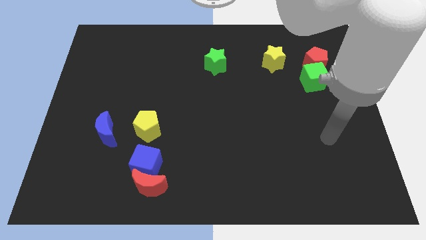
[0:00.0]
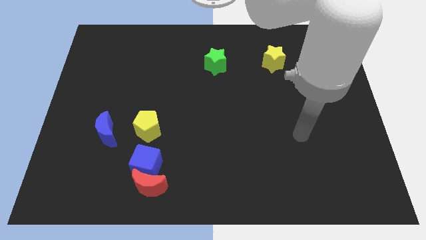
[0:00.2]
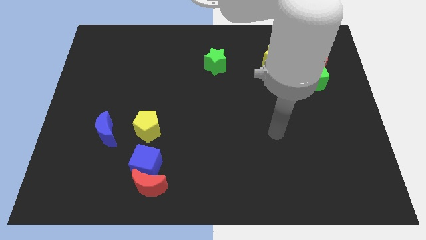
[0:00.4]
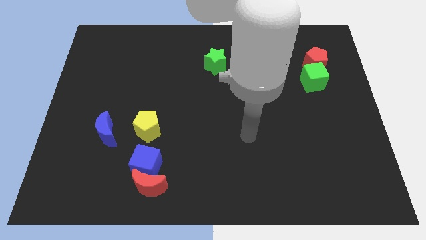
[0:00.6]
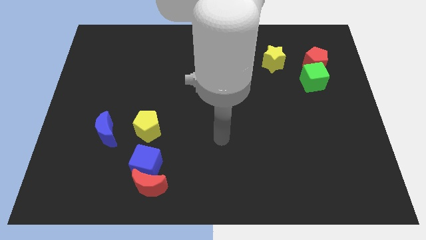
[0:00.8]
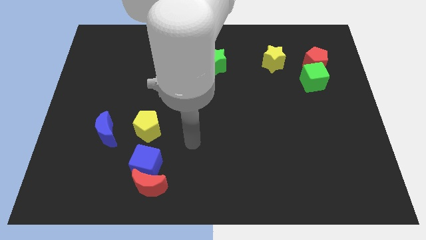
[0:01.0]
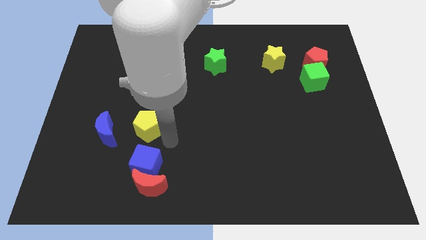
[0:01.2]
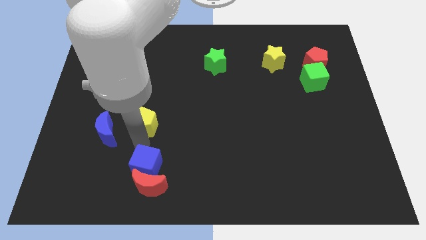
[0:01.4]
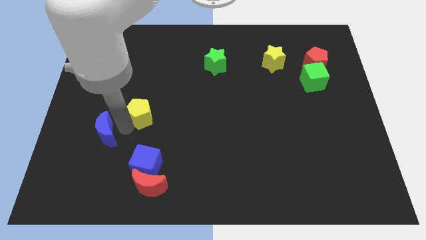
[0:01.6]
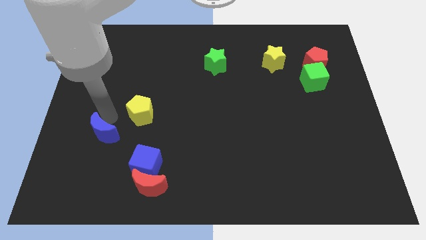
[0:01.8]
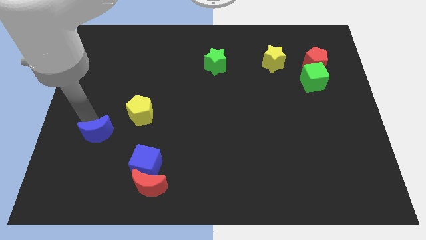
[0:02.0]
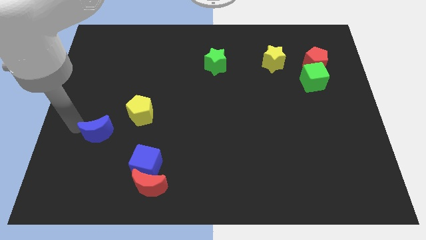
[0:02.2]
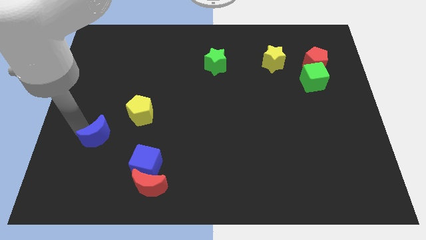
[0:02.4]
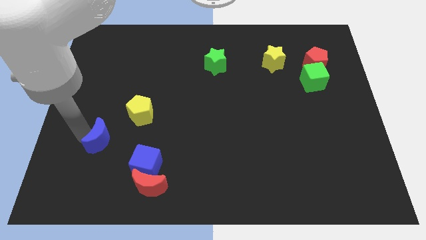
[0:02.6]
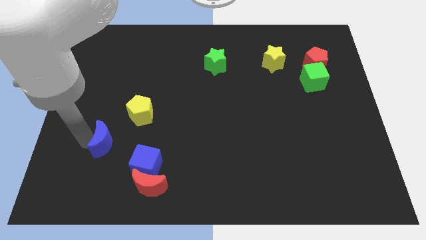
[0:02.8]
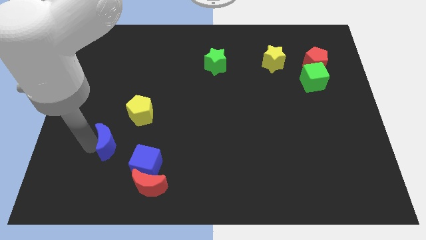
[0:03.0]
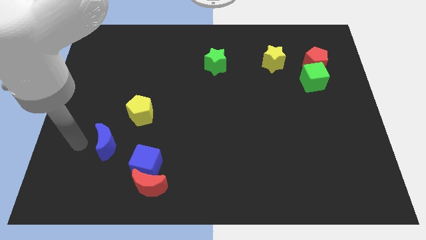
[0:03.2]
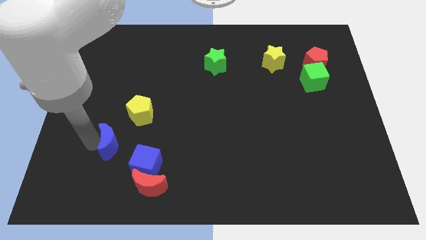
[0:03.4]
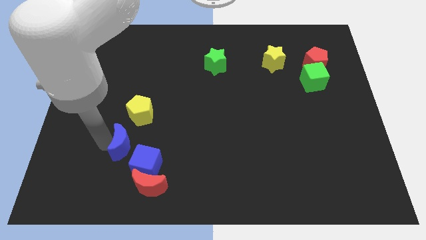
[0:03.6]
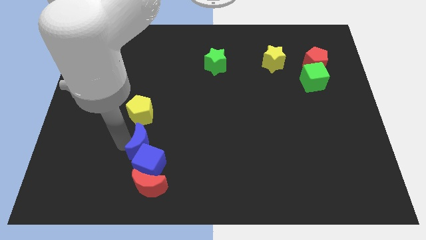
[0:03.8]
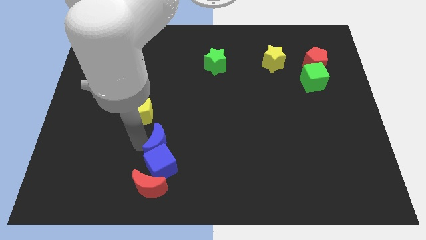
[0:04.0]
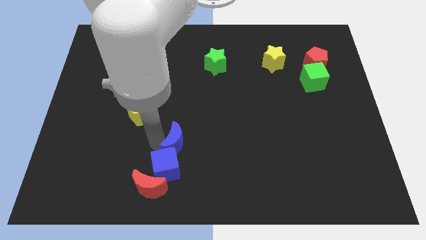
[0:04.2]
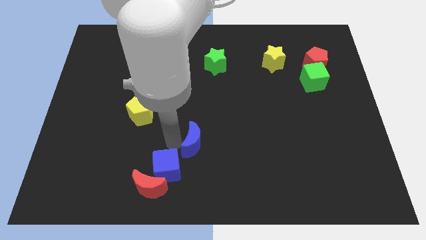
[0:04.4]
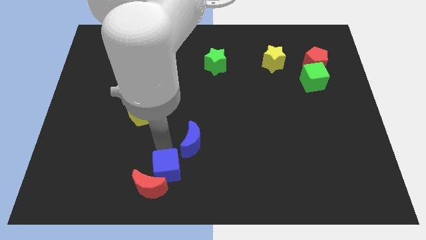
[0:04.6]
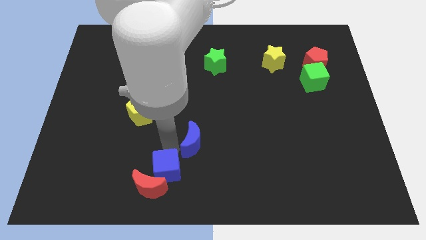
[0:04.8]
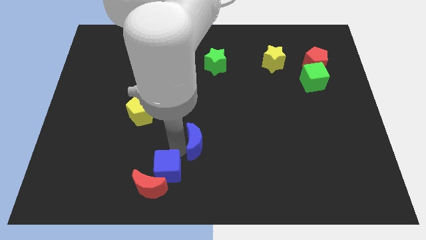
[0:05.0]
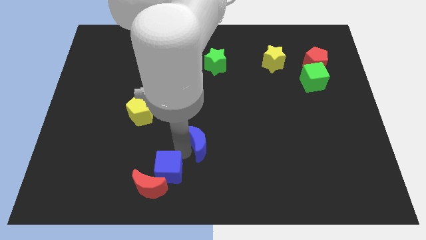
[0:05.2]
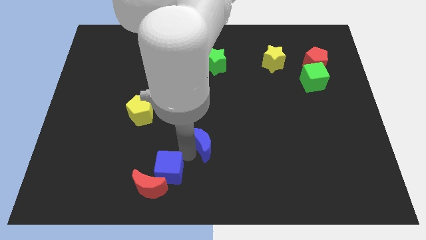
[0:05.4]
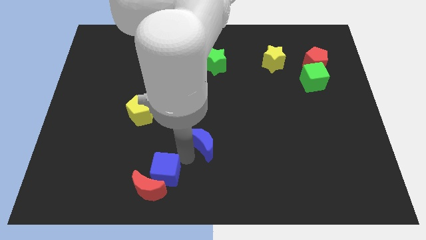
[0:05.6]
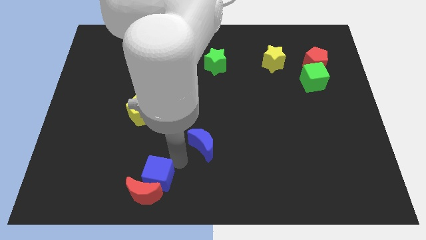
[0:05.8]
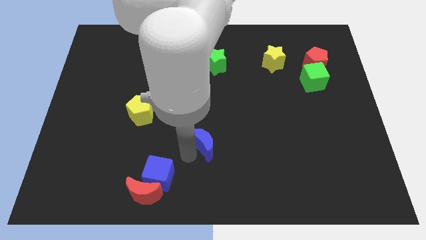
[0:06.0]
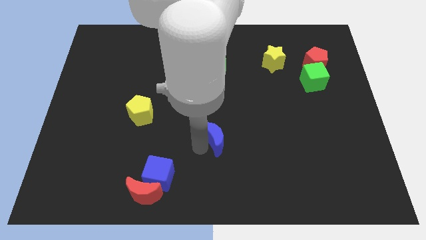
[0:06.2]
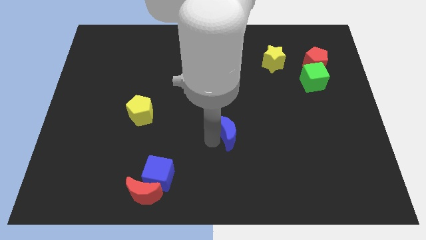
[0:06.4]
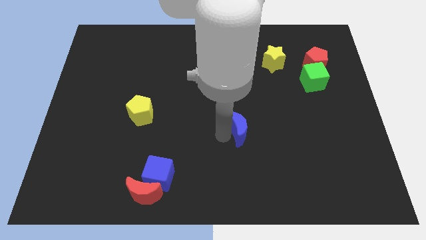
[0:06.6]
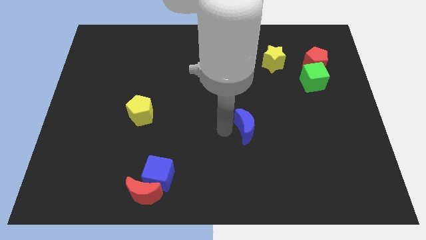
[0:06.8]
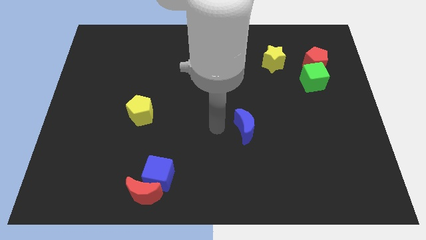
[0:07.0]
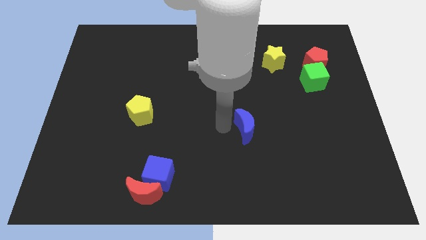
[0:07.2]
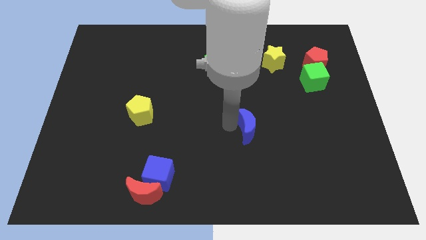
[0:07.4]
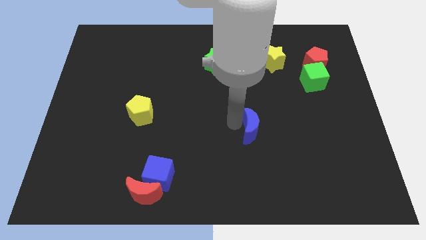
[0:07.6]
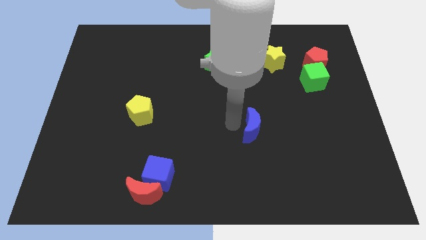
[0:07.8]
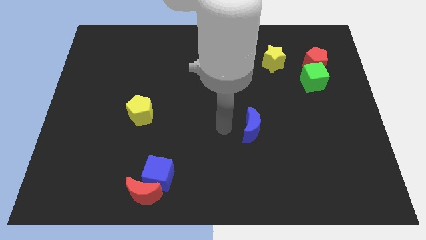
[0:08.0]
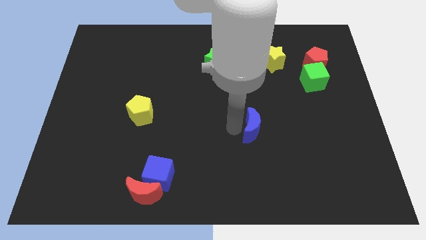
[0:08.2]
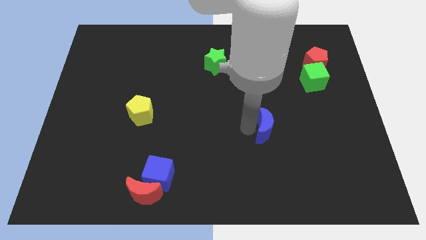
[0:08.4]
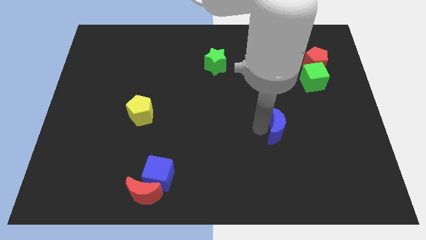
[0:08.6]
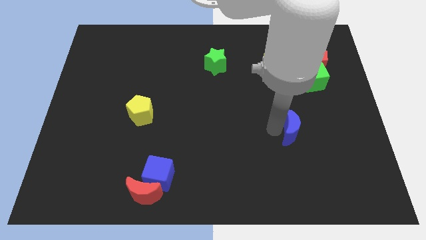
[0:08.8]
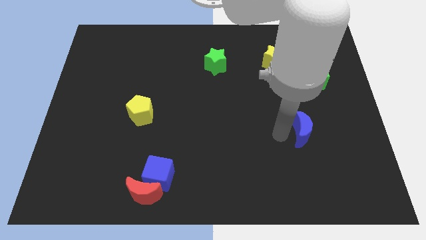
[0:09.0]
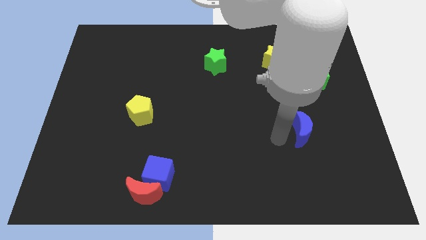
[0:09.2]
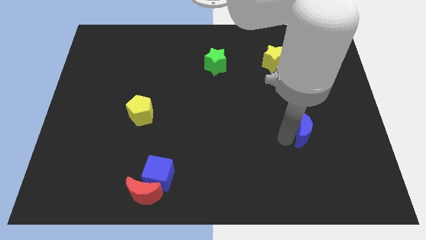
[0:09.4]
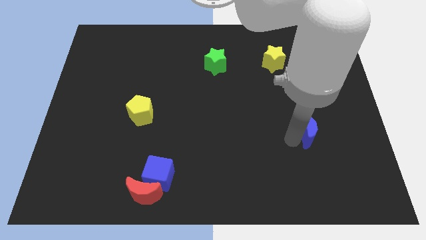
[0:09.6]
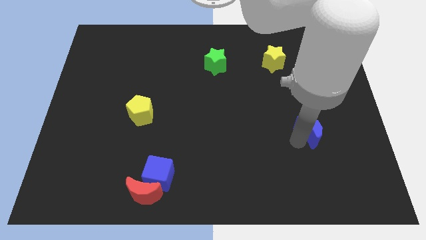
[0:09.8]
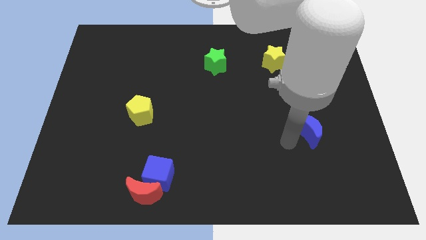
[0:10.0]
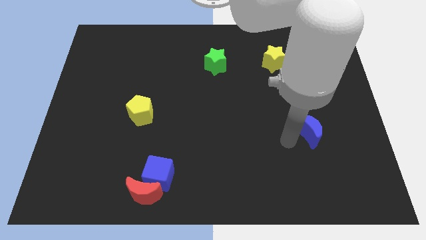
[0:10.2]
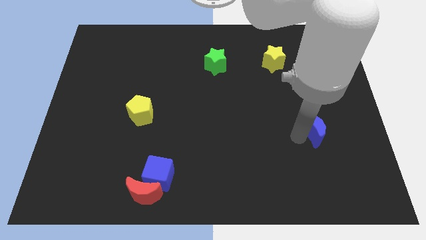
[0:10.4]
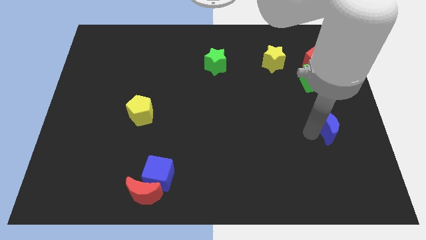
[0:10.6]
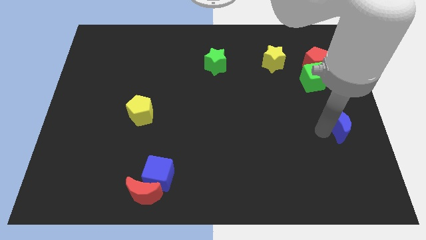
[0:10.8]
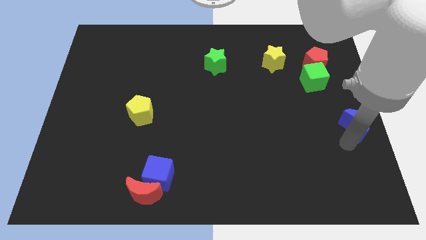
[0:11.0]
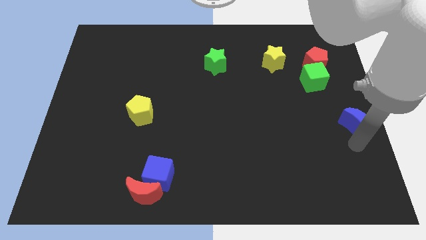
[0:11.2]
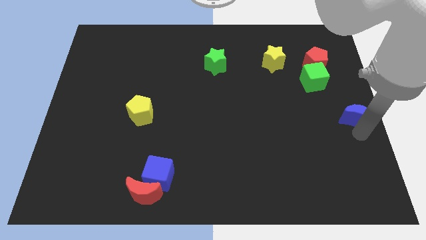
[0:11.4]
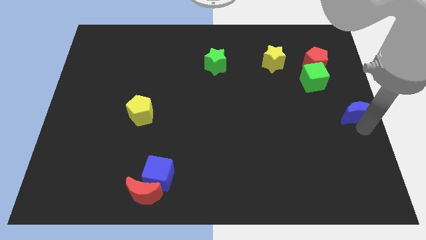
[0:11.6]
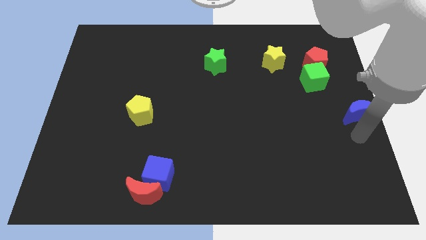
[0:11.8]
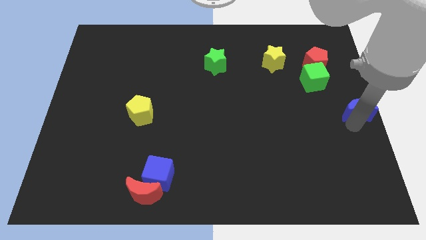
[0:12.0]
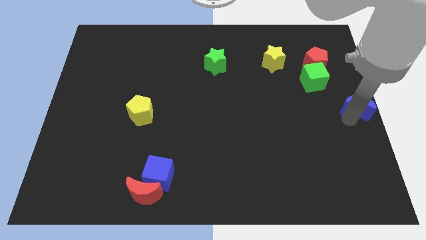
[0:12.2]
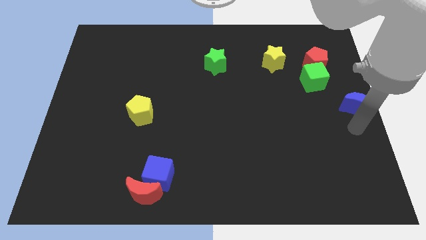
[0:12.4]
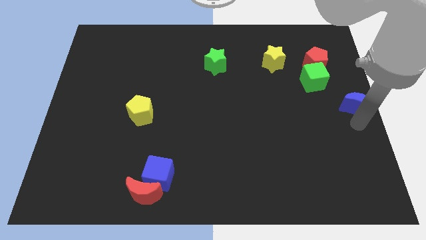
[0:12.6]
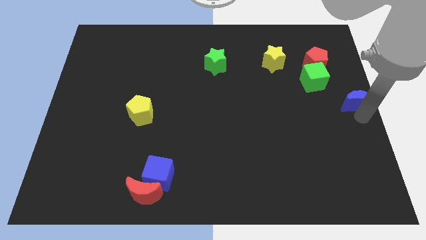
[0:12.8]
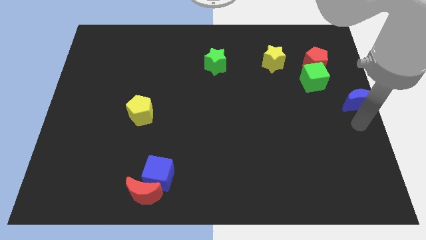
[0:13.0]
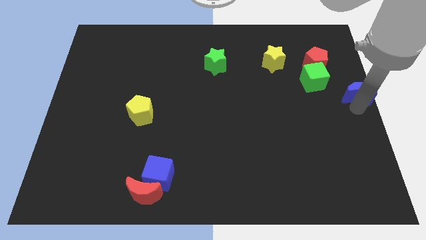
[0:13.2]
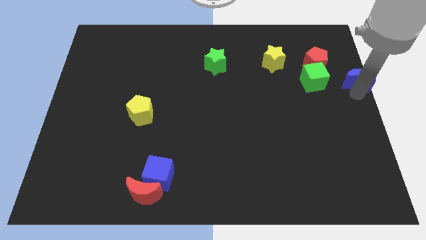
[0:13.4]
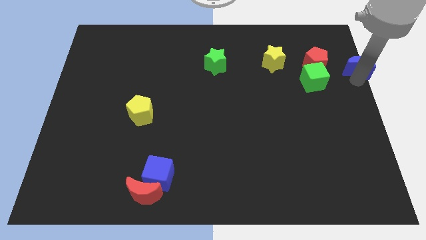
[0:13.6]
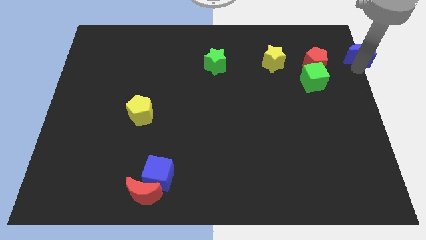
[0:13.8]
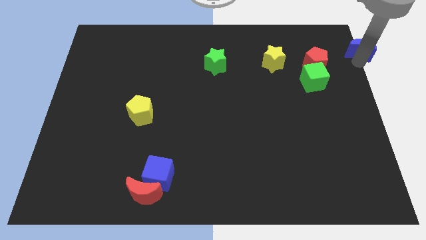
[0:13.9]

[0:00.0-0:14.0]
slide the blue moon to the upper right corner

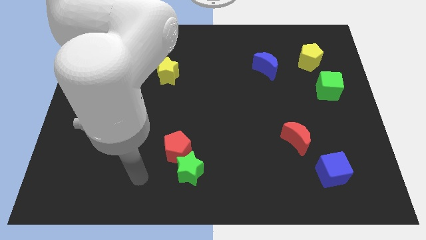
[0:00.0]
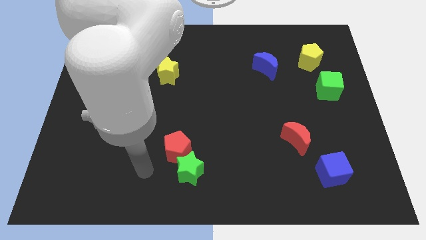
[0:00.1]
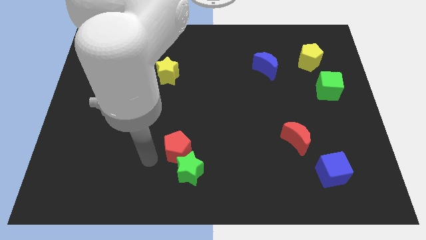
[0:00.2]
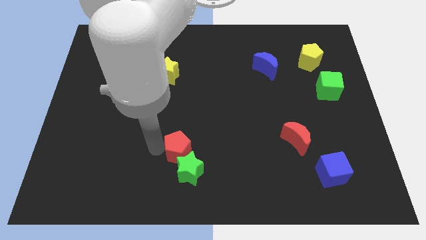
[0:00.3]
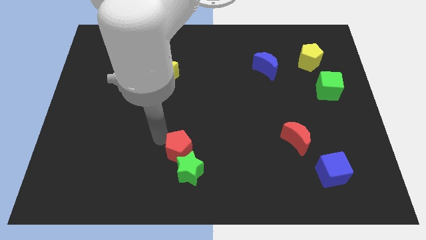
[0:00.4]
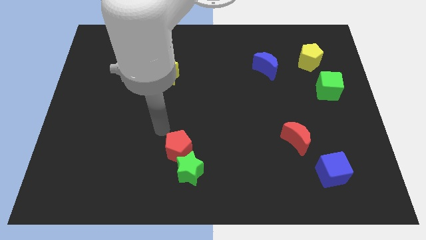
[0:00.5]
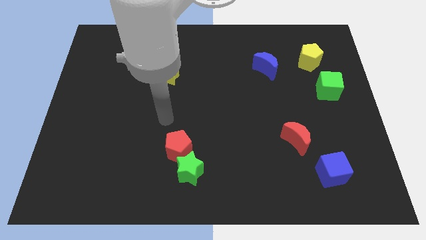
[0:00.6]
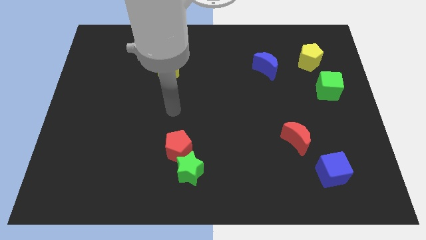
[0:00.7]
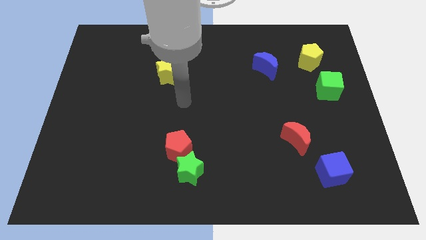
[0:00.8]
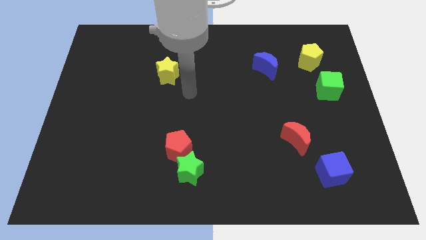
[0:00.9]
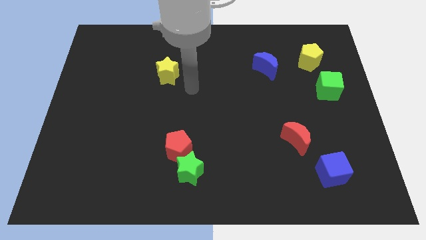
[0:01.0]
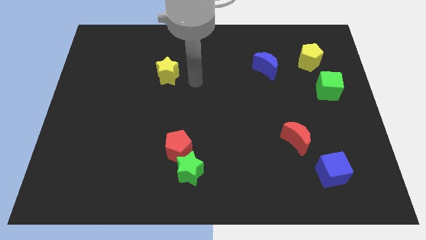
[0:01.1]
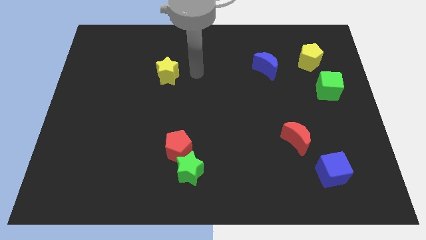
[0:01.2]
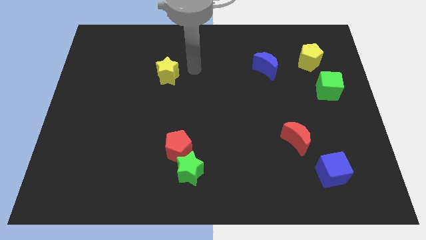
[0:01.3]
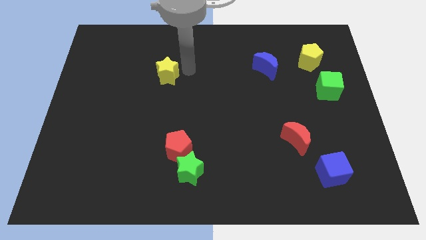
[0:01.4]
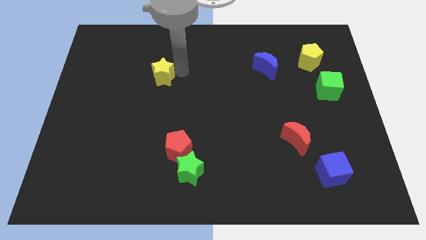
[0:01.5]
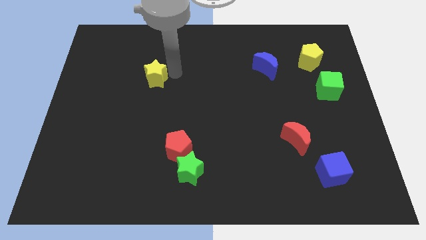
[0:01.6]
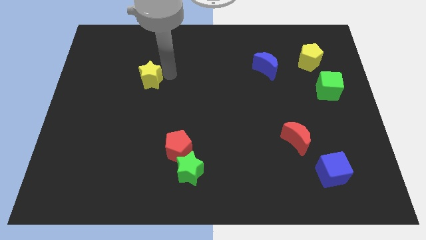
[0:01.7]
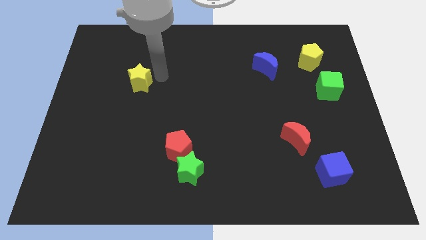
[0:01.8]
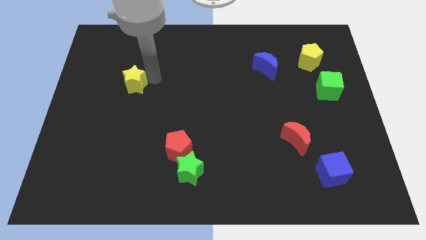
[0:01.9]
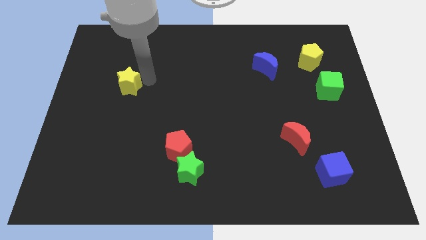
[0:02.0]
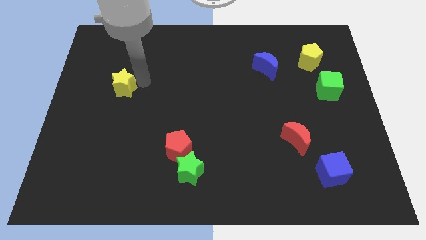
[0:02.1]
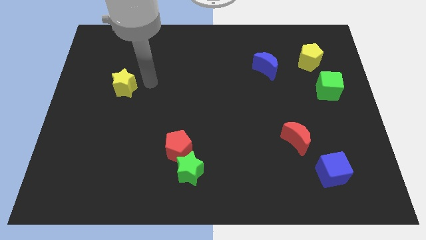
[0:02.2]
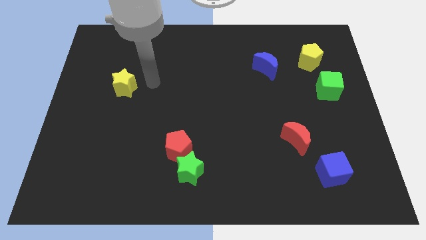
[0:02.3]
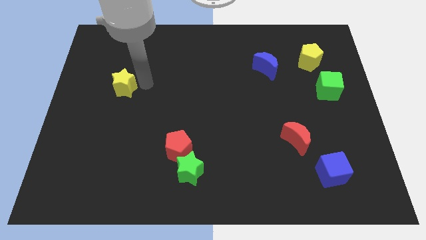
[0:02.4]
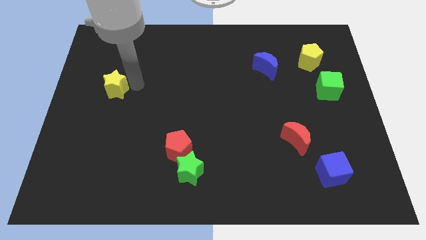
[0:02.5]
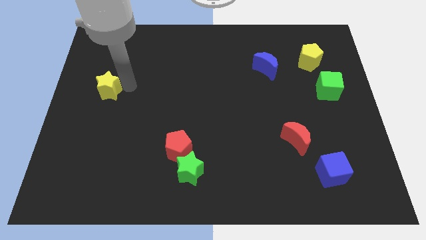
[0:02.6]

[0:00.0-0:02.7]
put the yellow star to the center left
